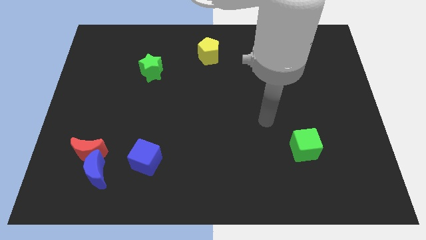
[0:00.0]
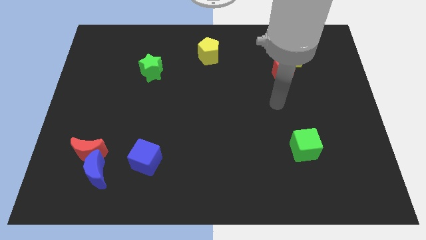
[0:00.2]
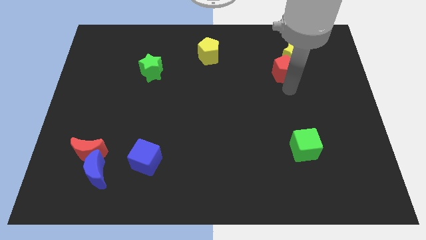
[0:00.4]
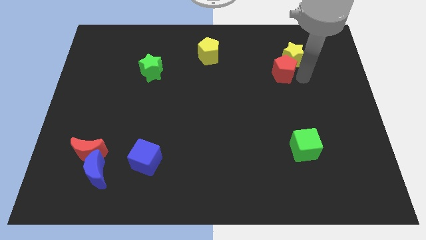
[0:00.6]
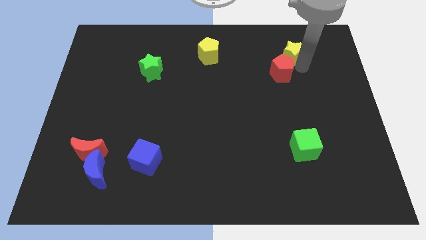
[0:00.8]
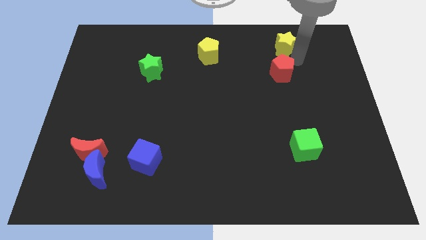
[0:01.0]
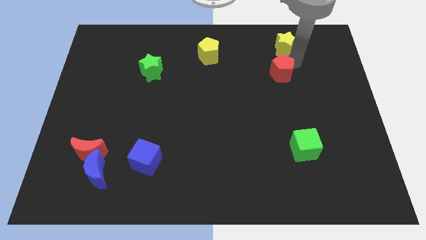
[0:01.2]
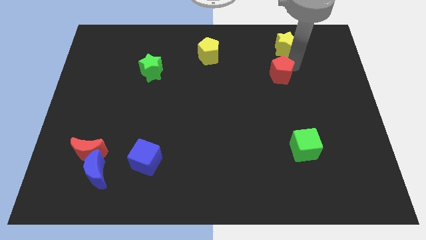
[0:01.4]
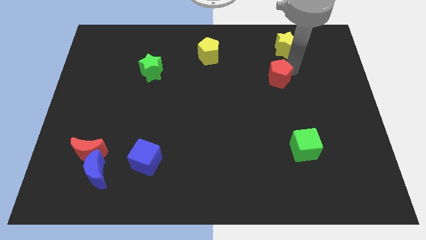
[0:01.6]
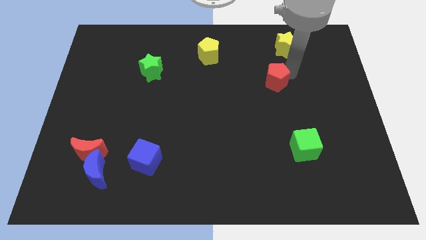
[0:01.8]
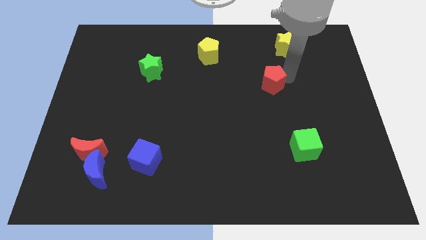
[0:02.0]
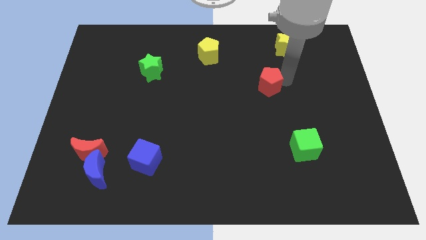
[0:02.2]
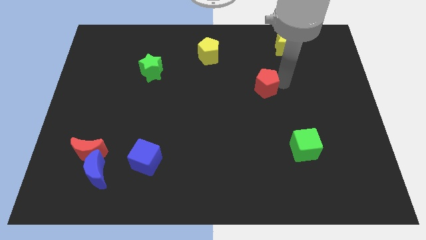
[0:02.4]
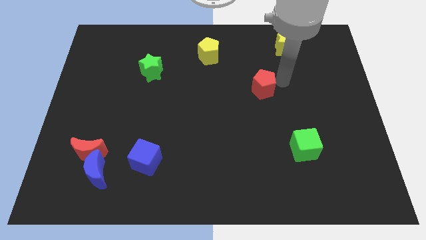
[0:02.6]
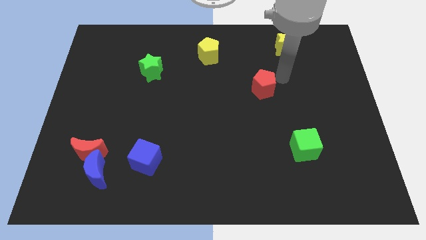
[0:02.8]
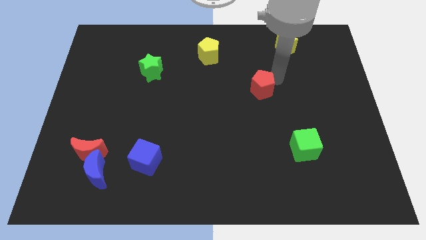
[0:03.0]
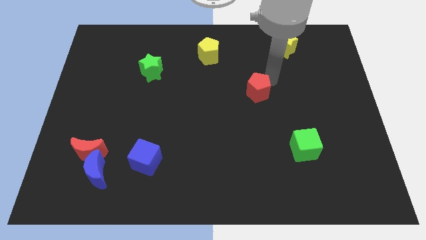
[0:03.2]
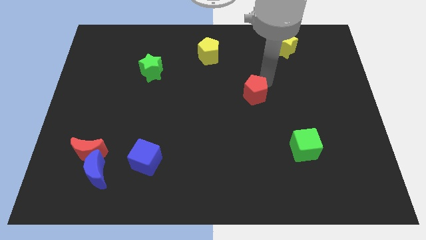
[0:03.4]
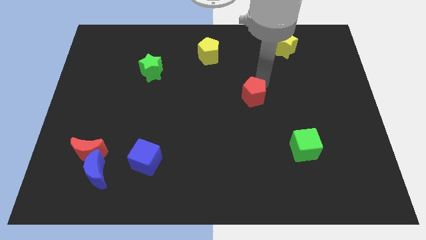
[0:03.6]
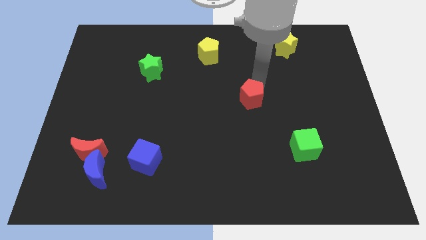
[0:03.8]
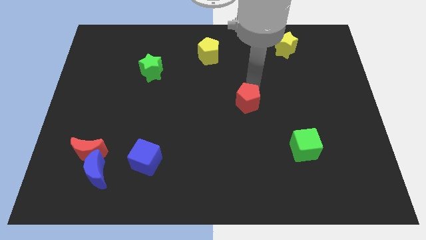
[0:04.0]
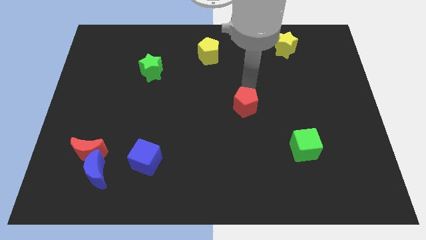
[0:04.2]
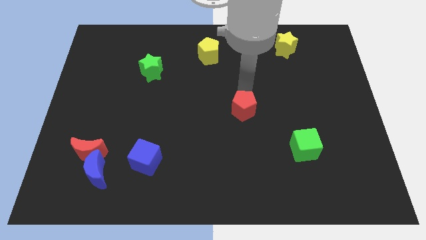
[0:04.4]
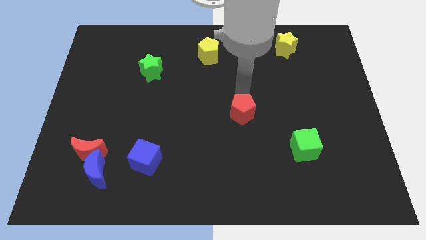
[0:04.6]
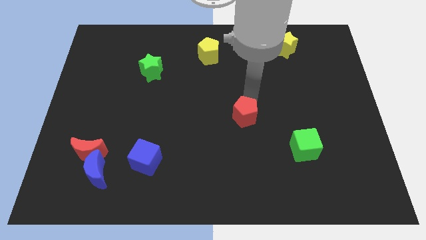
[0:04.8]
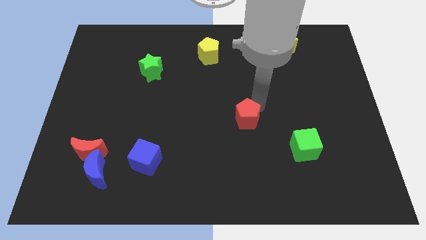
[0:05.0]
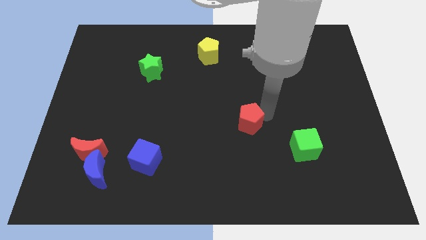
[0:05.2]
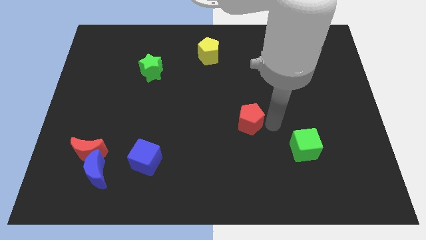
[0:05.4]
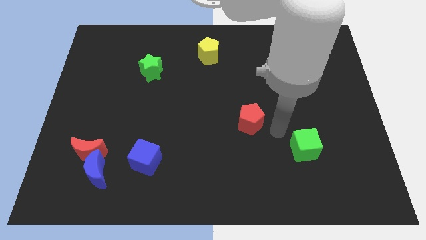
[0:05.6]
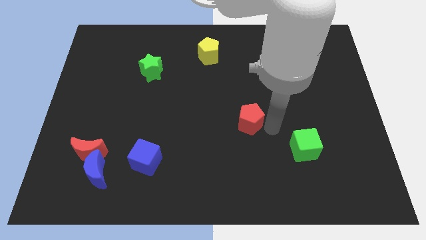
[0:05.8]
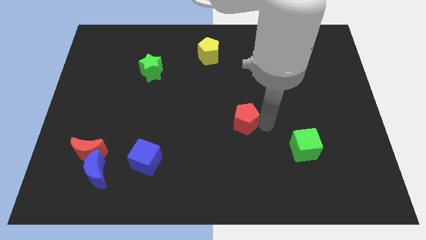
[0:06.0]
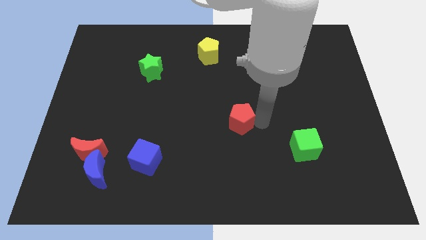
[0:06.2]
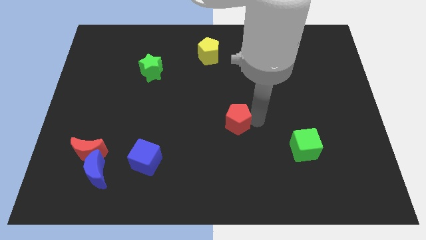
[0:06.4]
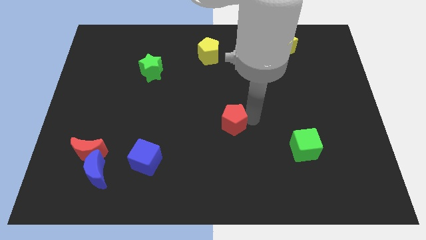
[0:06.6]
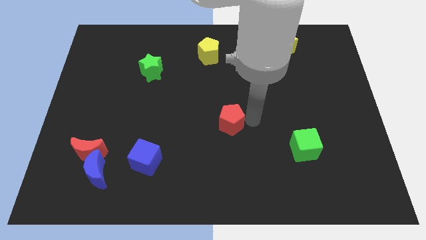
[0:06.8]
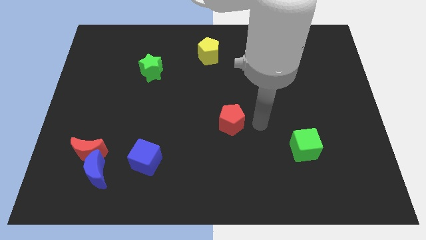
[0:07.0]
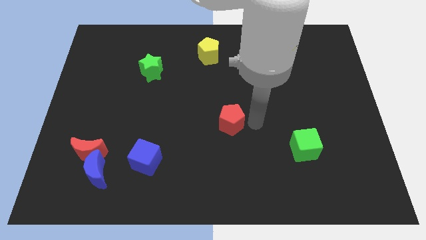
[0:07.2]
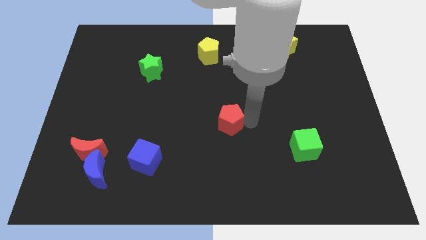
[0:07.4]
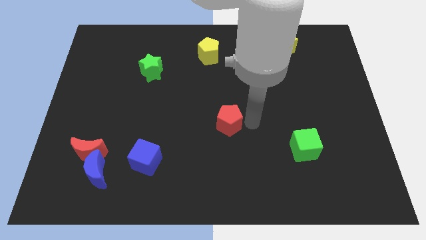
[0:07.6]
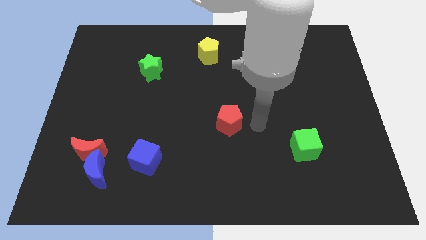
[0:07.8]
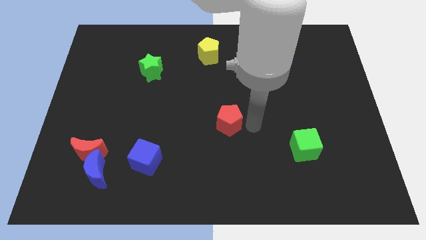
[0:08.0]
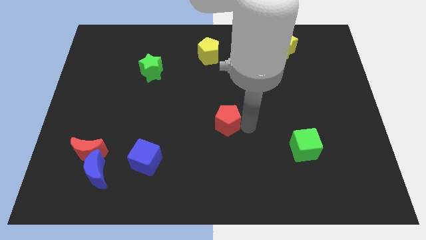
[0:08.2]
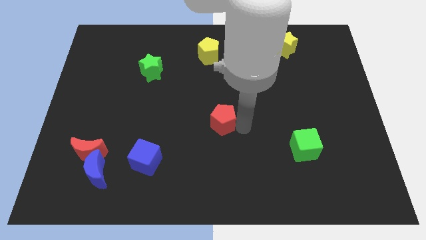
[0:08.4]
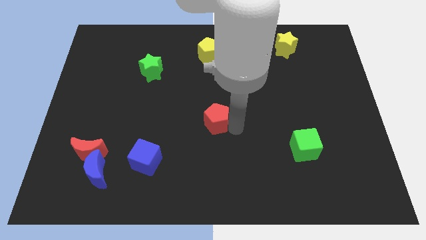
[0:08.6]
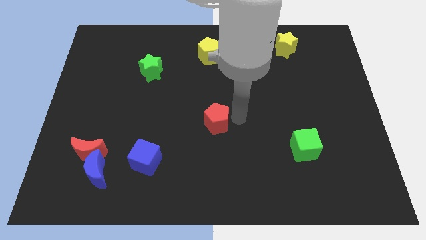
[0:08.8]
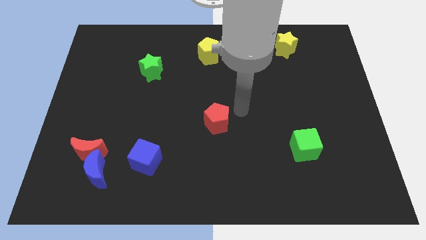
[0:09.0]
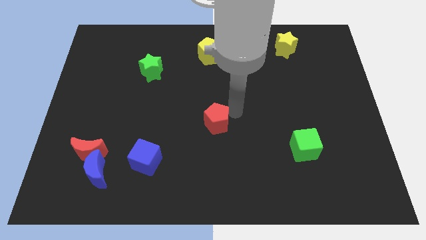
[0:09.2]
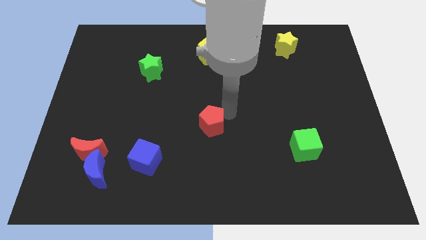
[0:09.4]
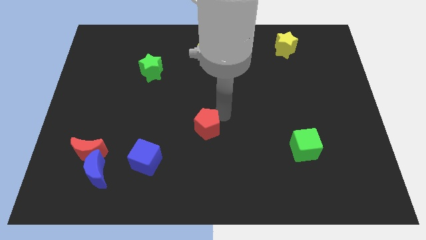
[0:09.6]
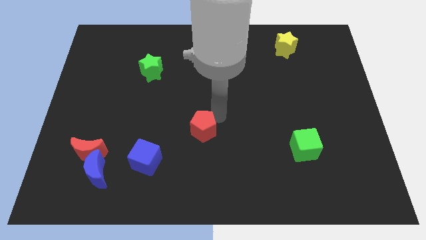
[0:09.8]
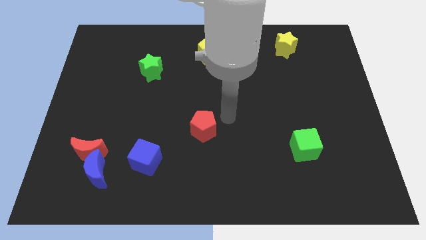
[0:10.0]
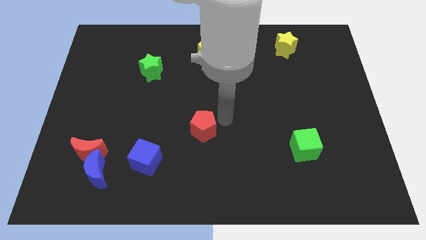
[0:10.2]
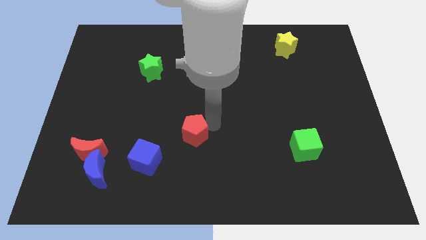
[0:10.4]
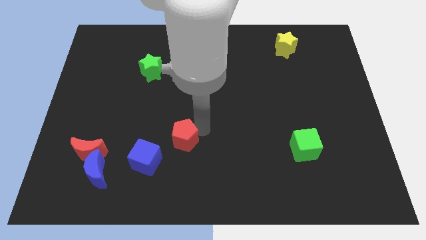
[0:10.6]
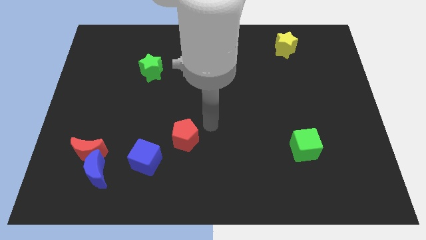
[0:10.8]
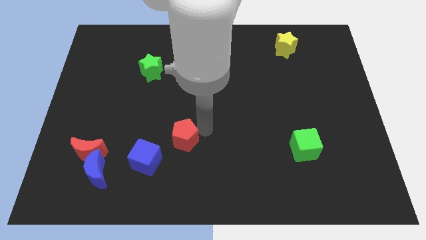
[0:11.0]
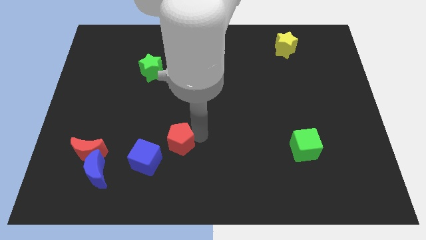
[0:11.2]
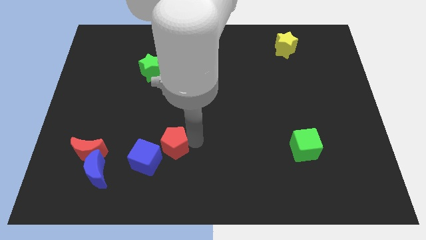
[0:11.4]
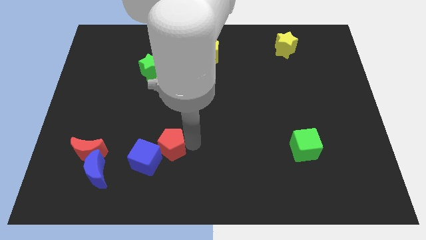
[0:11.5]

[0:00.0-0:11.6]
put the red pentagon next to the blue cube

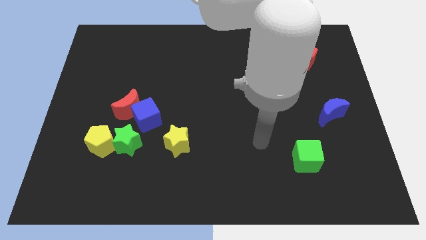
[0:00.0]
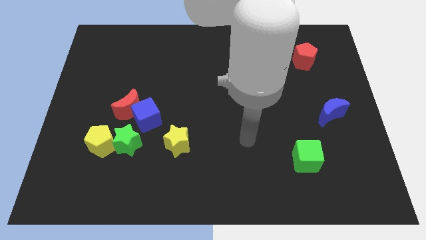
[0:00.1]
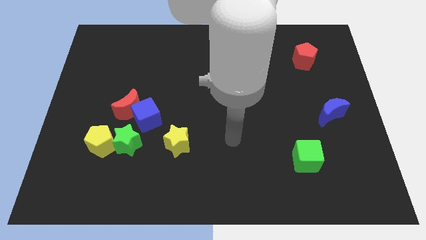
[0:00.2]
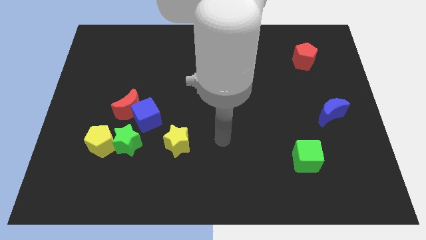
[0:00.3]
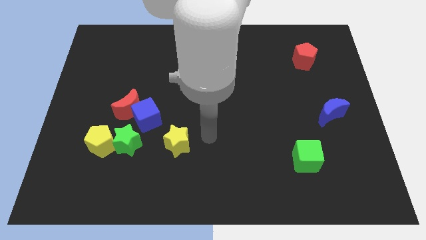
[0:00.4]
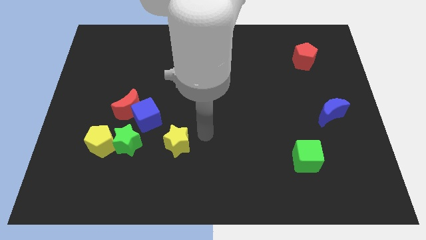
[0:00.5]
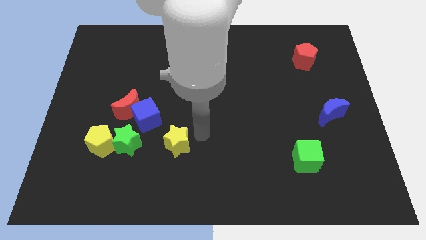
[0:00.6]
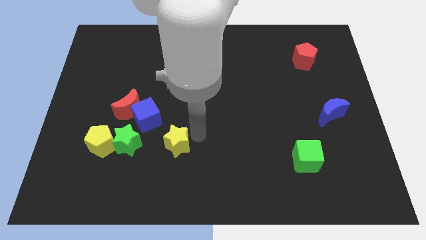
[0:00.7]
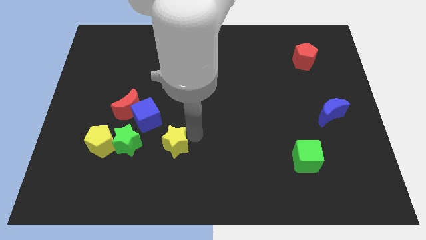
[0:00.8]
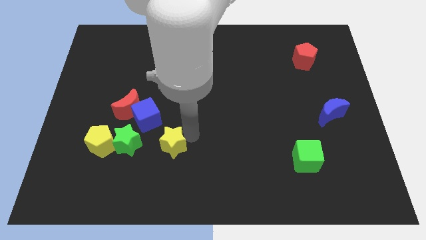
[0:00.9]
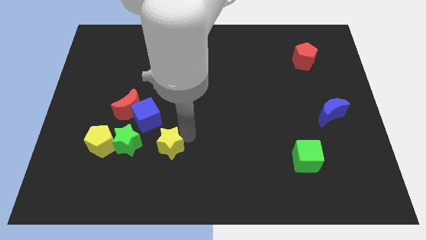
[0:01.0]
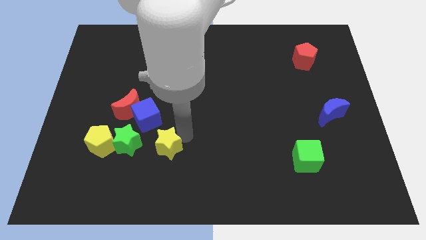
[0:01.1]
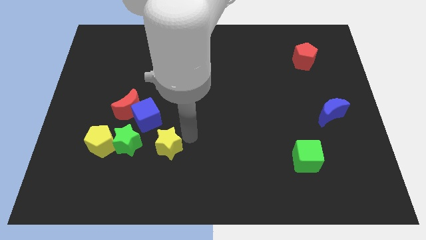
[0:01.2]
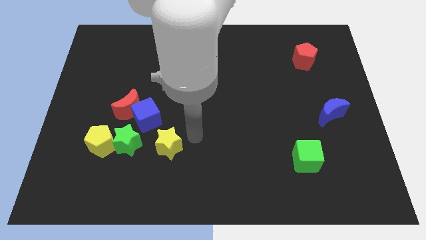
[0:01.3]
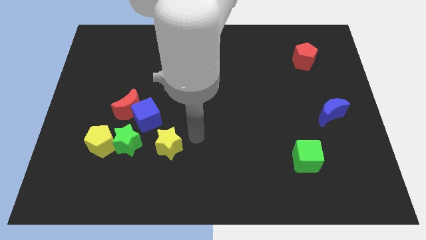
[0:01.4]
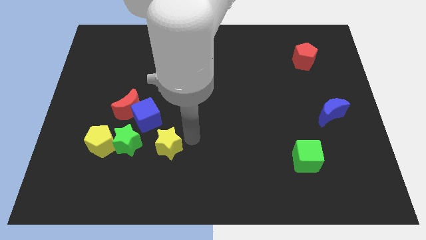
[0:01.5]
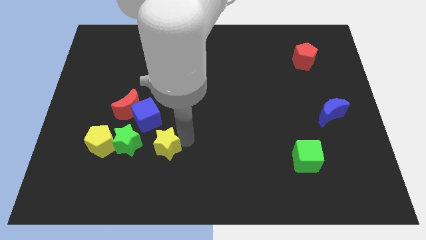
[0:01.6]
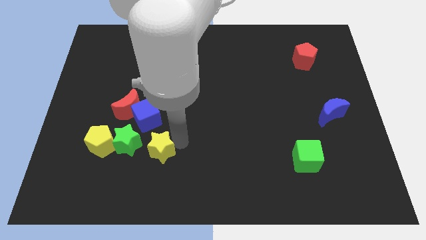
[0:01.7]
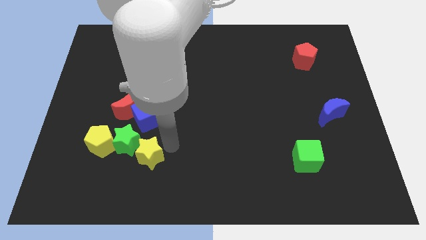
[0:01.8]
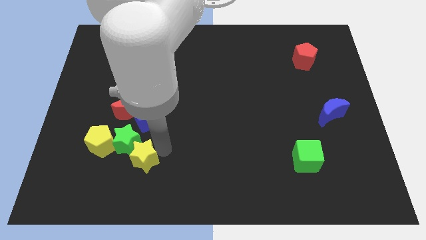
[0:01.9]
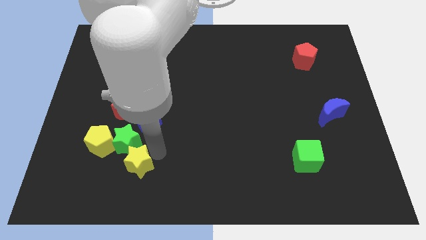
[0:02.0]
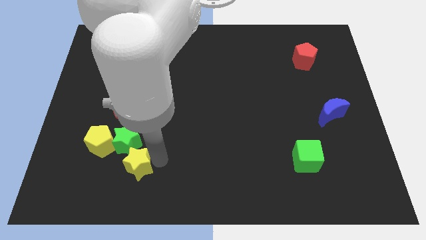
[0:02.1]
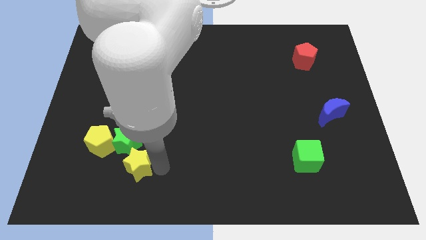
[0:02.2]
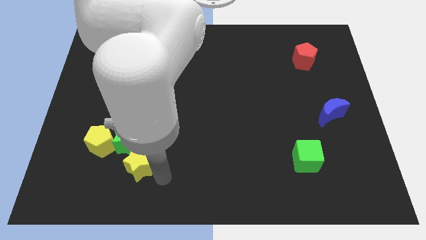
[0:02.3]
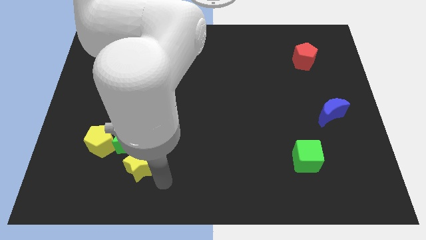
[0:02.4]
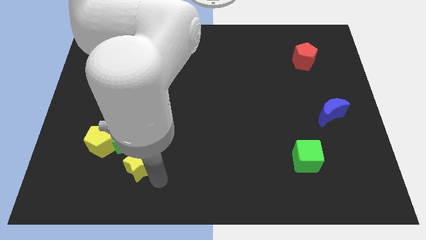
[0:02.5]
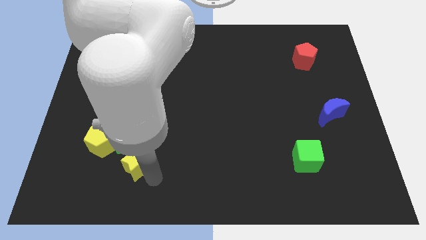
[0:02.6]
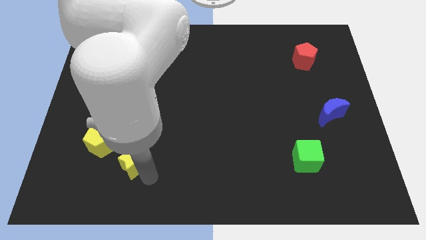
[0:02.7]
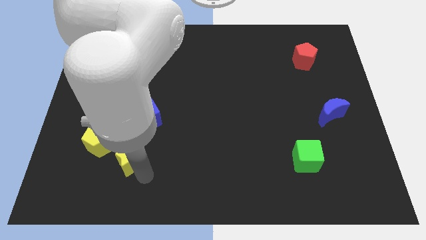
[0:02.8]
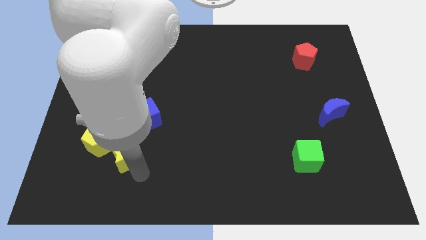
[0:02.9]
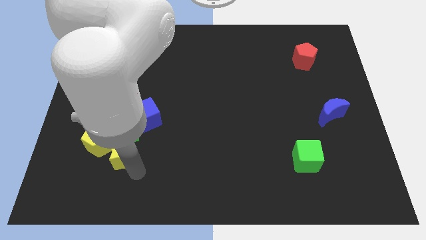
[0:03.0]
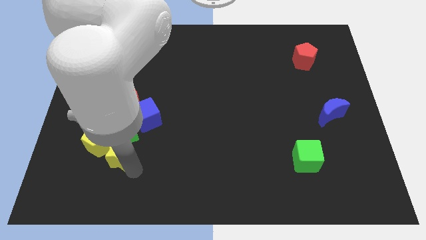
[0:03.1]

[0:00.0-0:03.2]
move the yellow star close to the yellow pentagon
